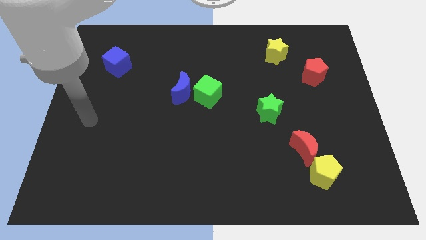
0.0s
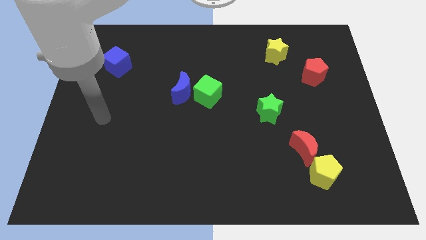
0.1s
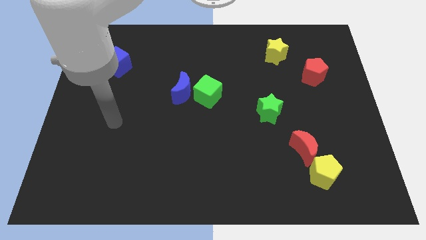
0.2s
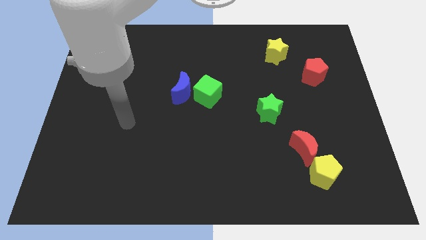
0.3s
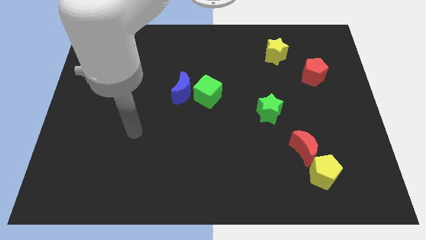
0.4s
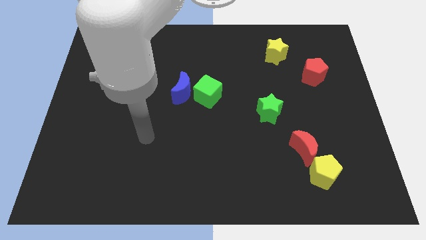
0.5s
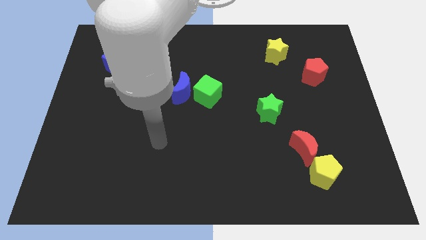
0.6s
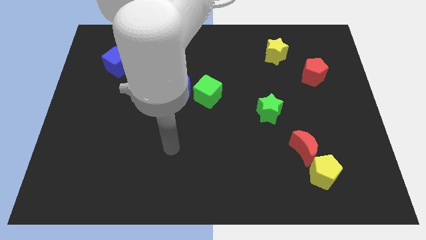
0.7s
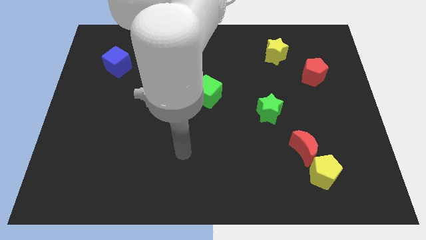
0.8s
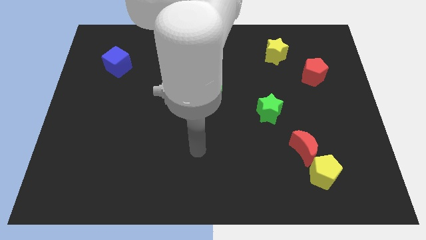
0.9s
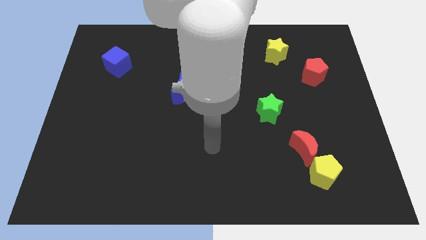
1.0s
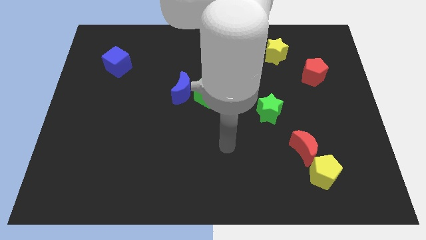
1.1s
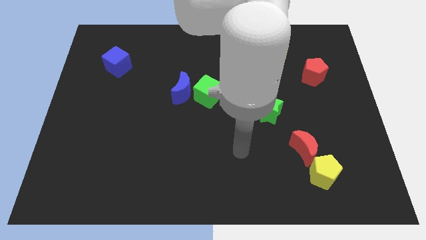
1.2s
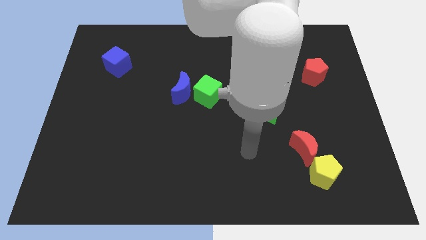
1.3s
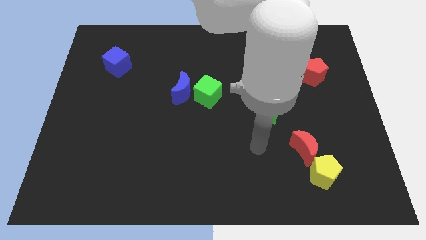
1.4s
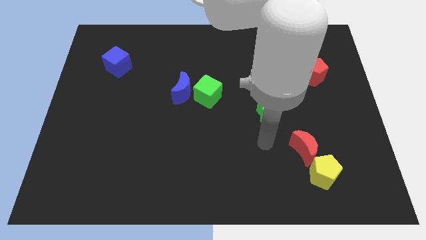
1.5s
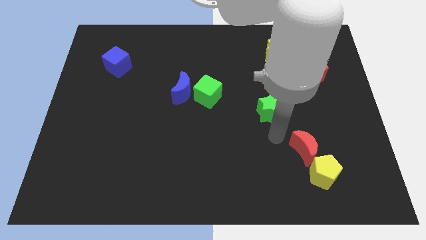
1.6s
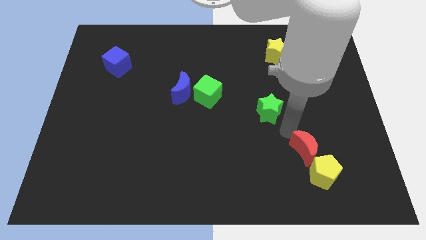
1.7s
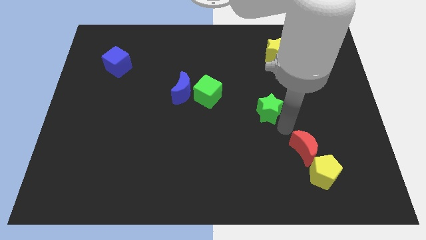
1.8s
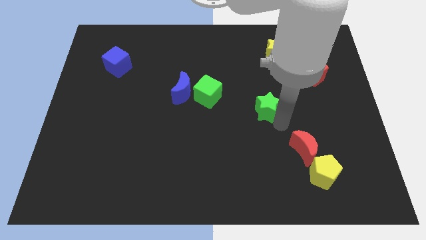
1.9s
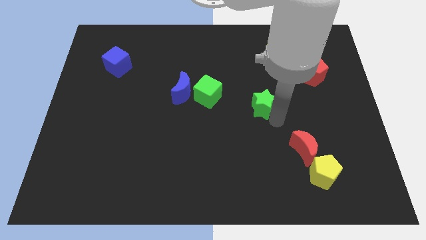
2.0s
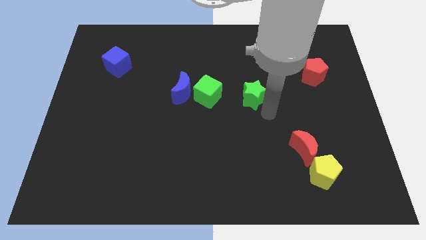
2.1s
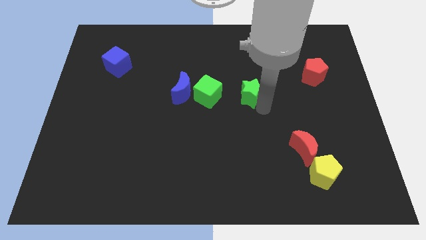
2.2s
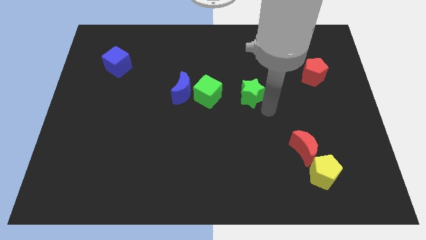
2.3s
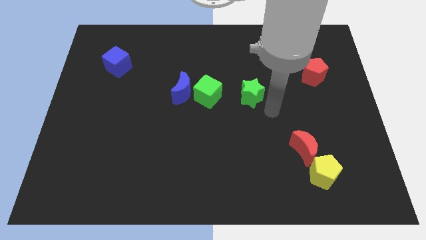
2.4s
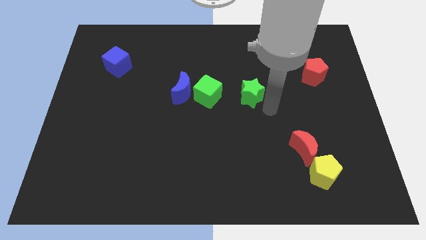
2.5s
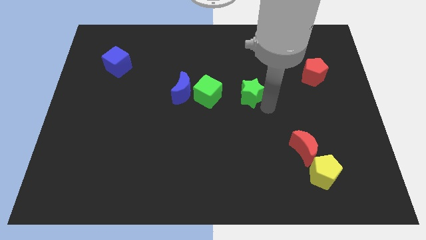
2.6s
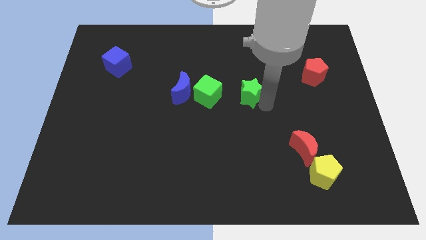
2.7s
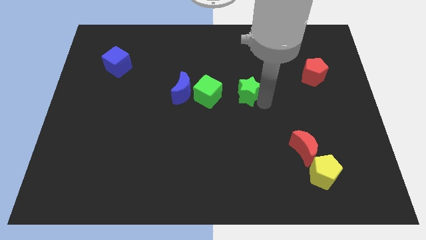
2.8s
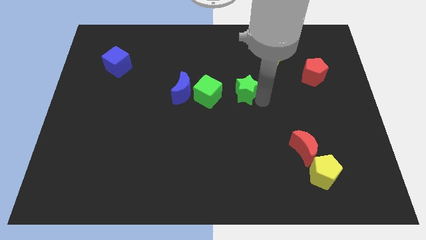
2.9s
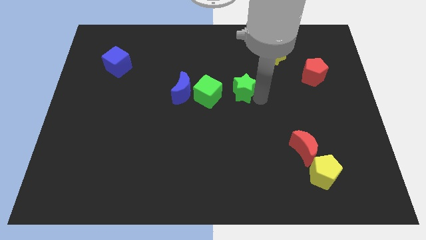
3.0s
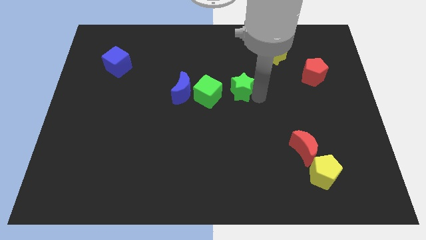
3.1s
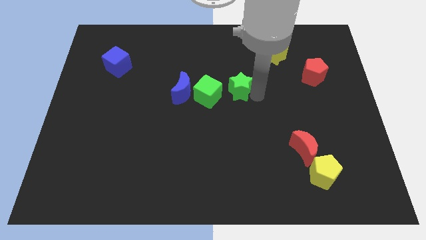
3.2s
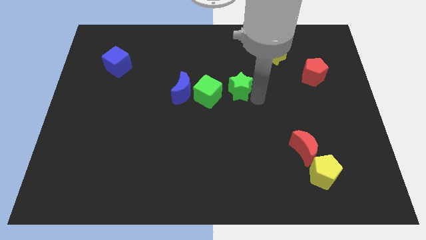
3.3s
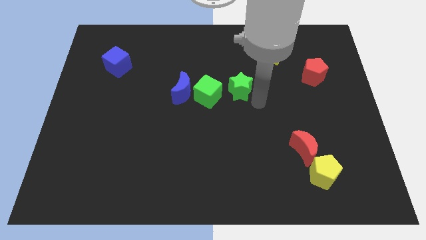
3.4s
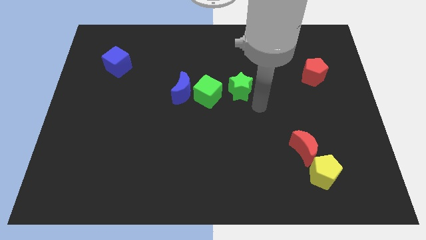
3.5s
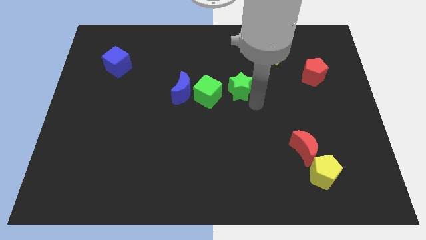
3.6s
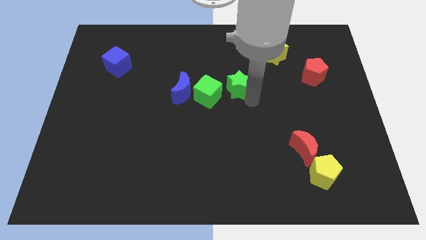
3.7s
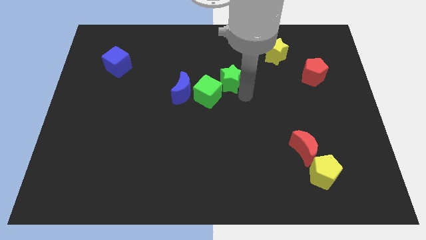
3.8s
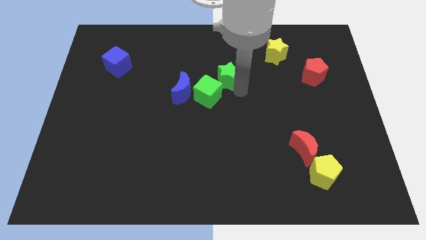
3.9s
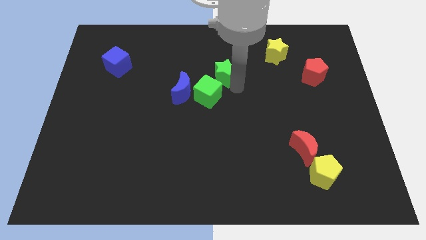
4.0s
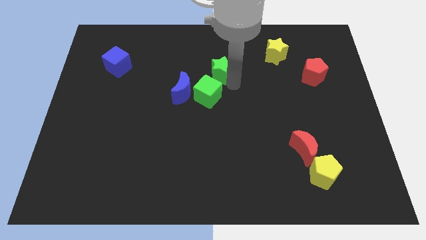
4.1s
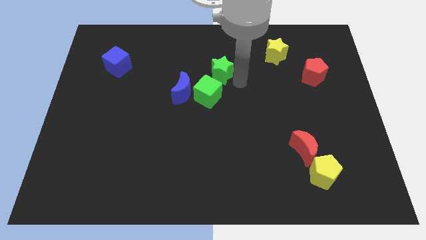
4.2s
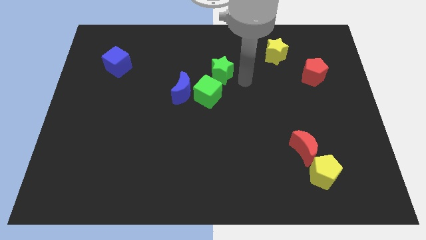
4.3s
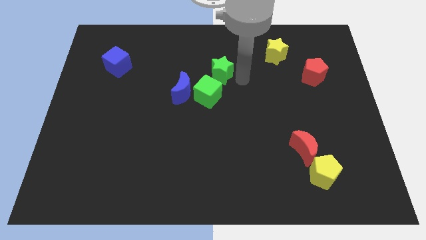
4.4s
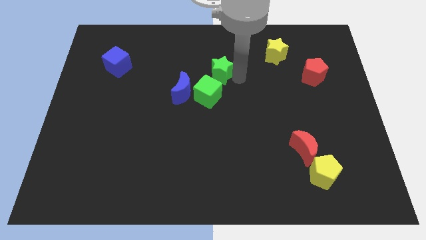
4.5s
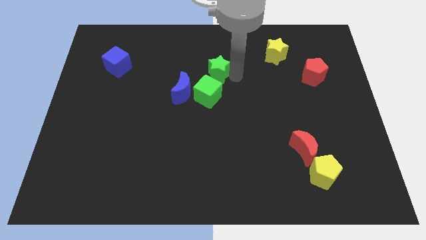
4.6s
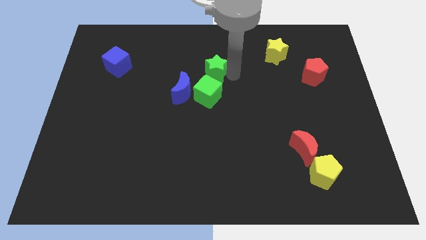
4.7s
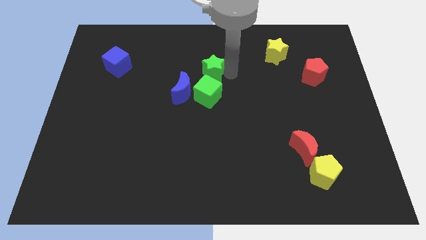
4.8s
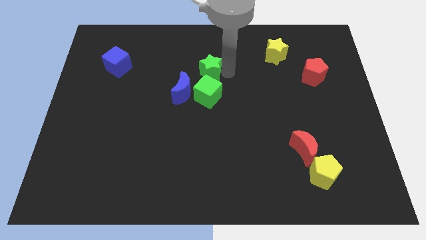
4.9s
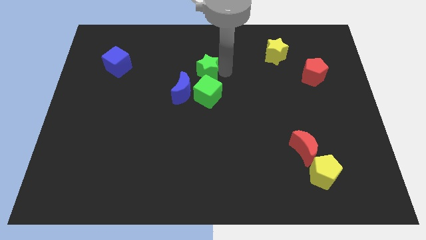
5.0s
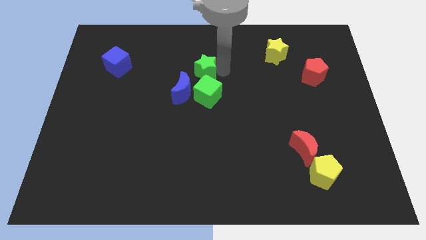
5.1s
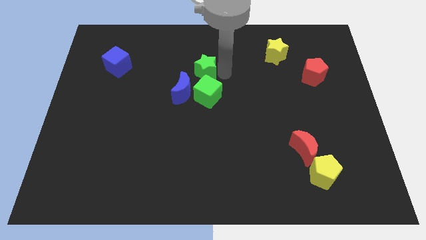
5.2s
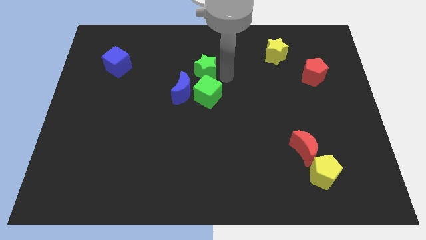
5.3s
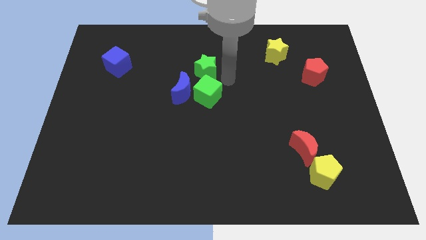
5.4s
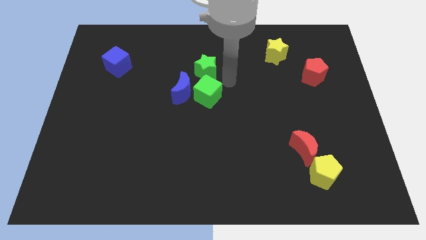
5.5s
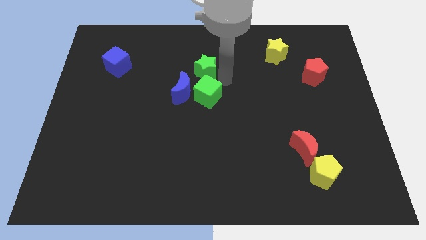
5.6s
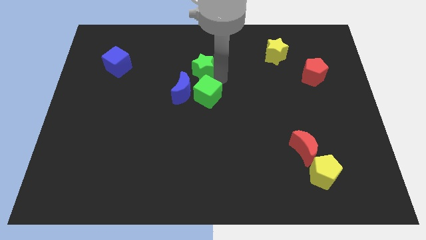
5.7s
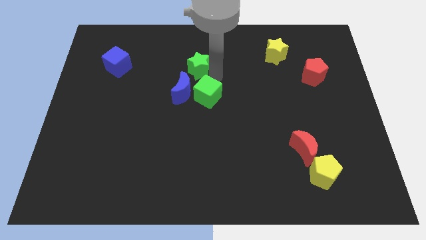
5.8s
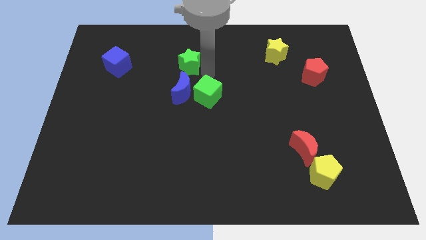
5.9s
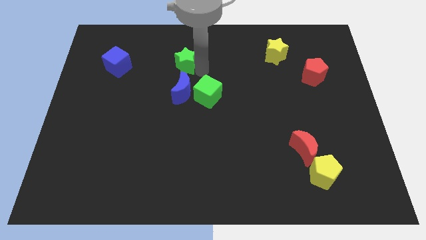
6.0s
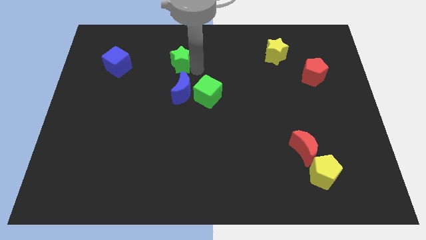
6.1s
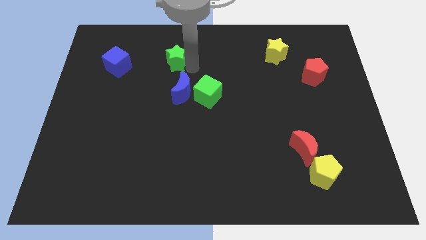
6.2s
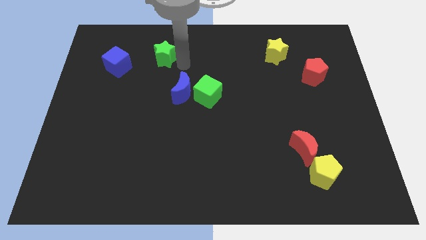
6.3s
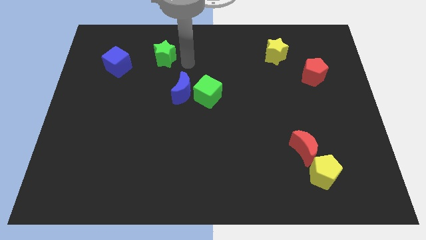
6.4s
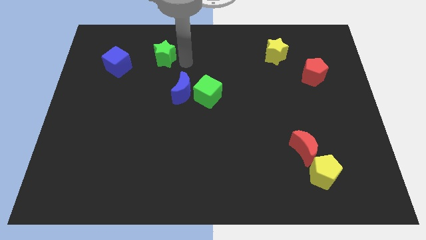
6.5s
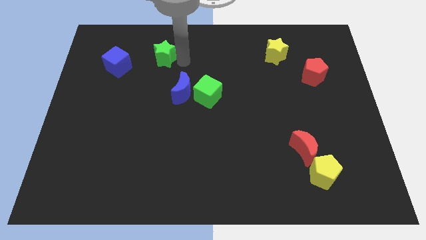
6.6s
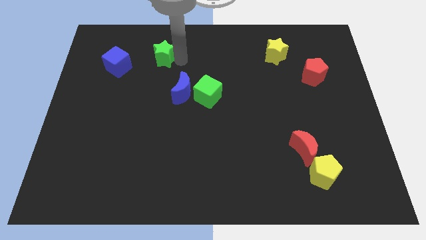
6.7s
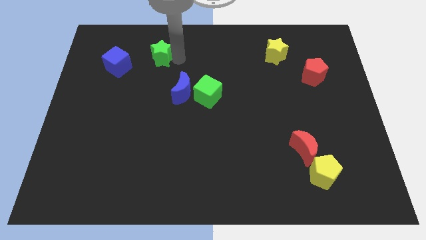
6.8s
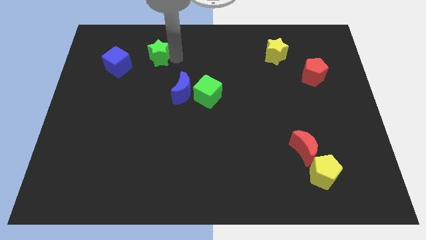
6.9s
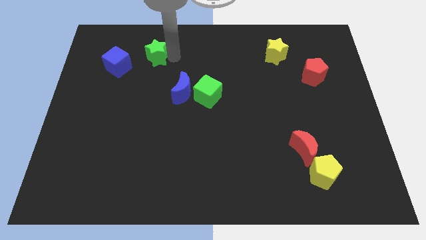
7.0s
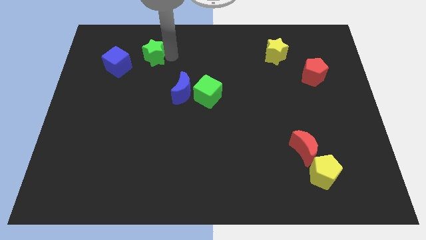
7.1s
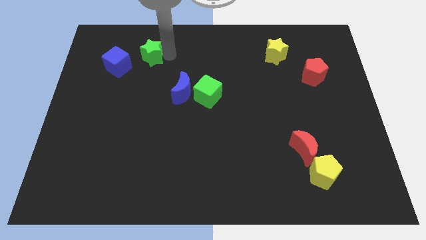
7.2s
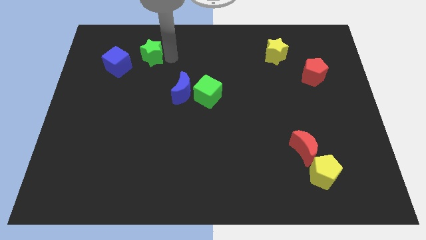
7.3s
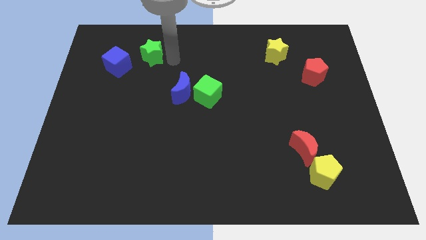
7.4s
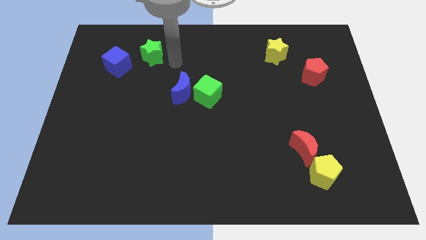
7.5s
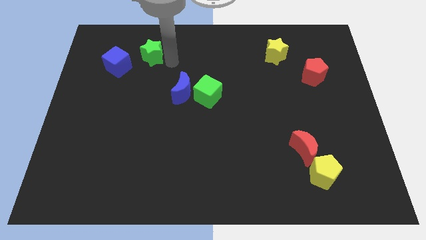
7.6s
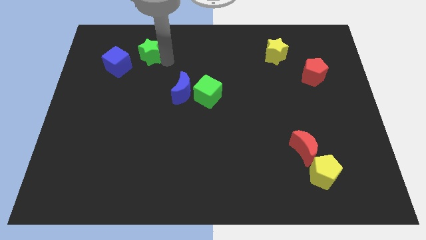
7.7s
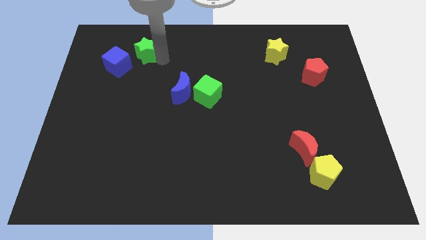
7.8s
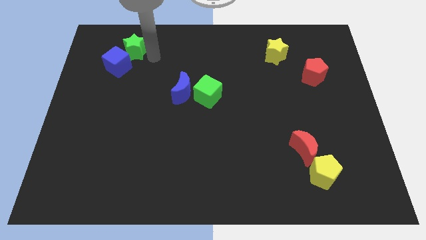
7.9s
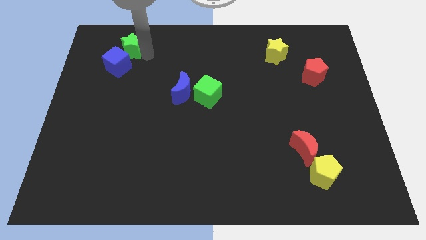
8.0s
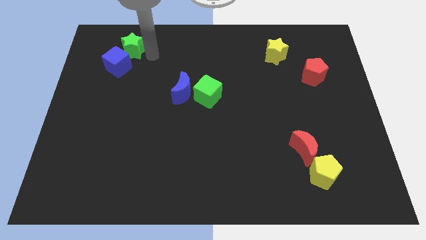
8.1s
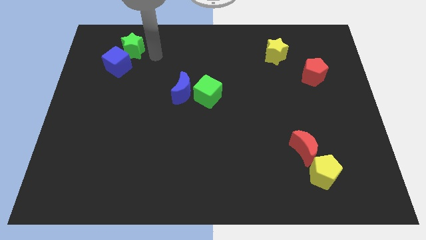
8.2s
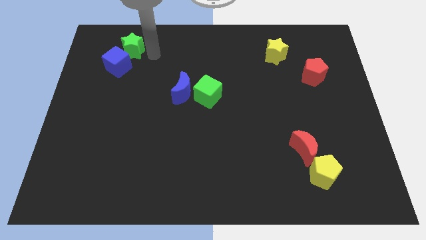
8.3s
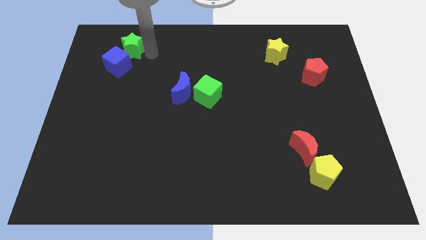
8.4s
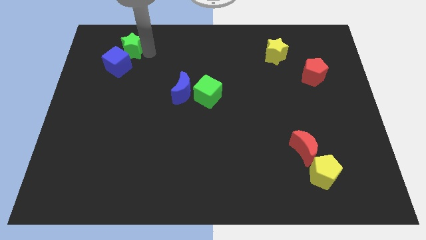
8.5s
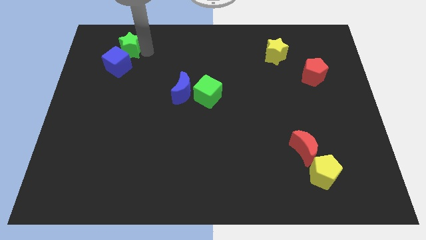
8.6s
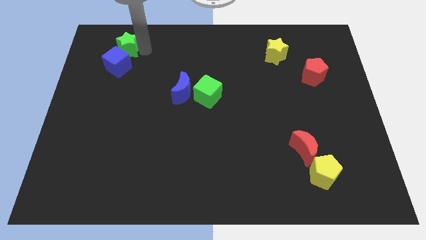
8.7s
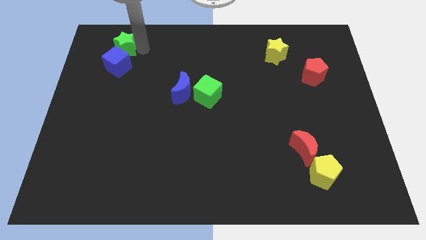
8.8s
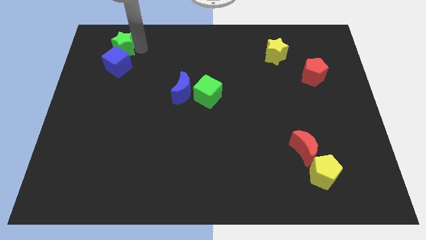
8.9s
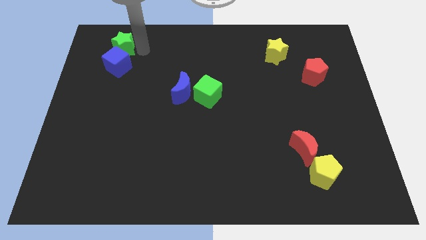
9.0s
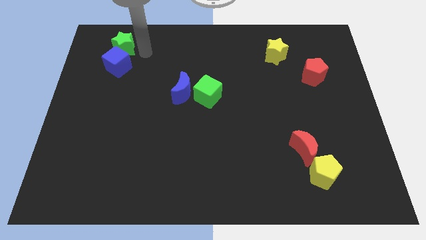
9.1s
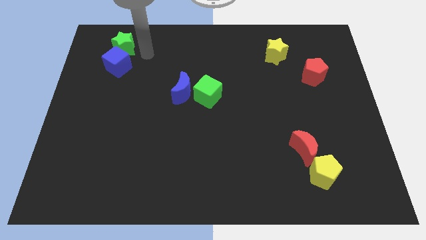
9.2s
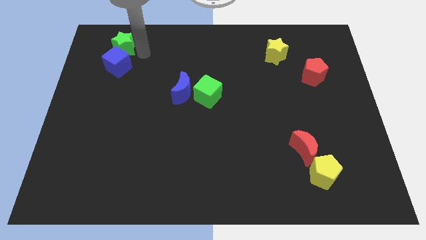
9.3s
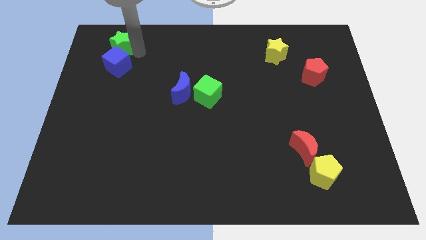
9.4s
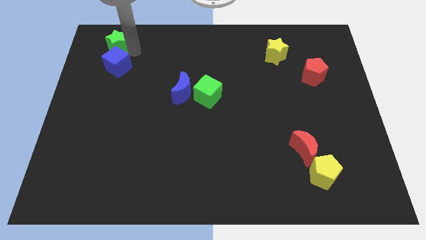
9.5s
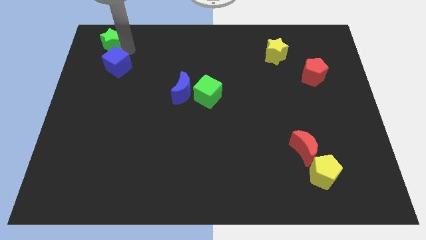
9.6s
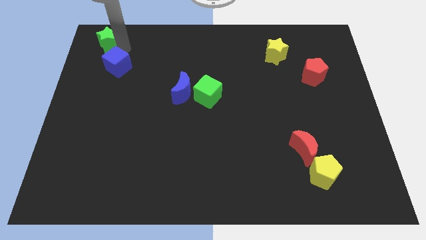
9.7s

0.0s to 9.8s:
put the green star to the top left corner
